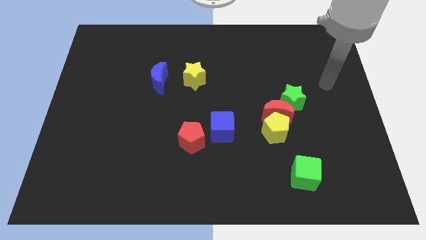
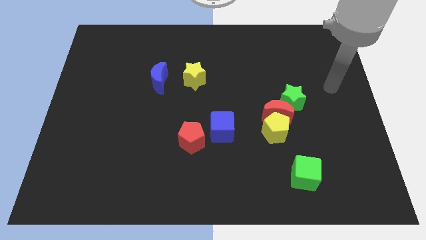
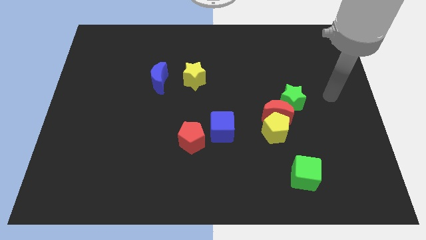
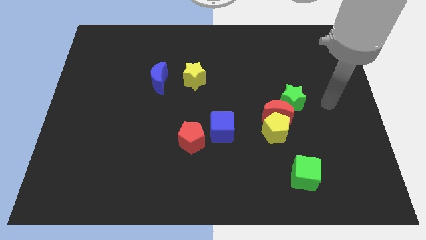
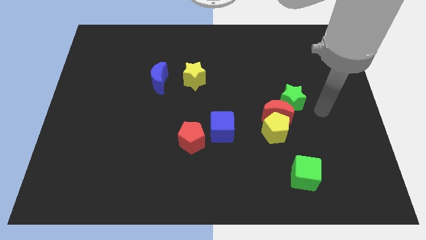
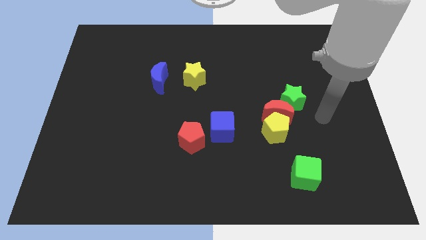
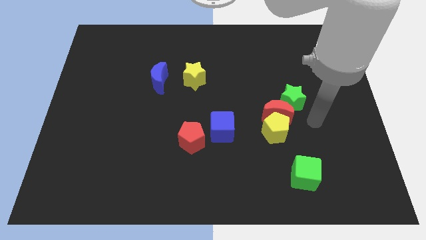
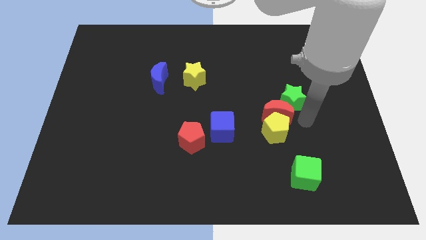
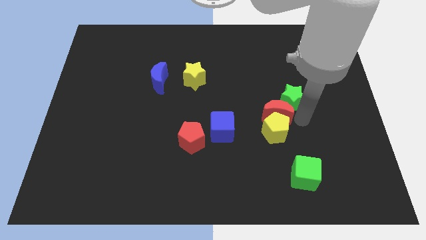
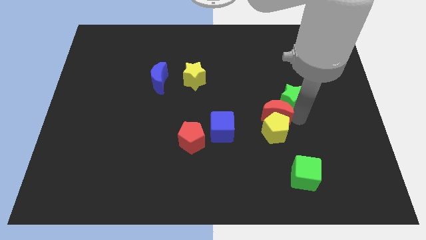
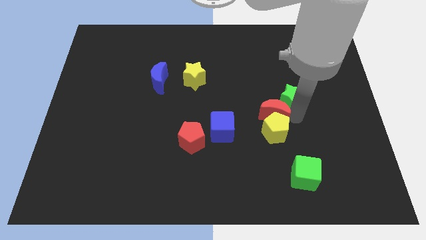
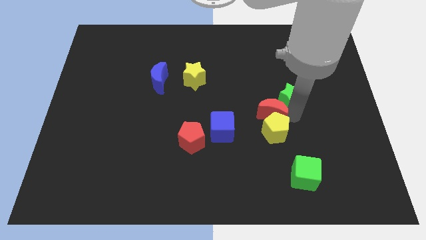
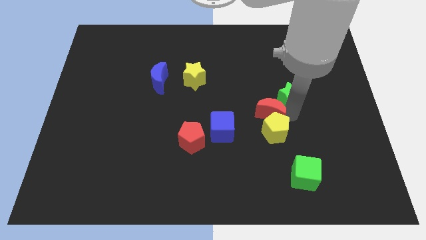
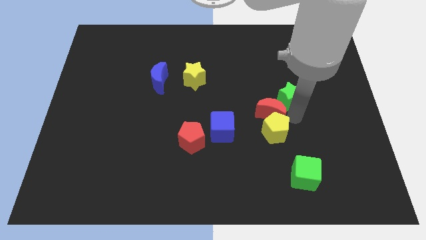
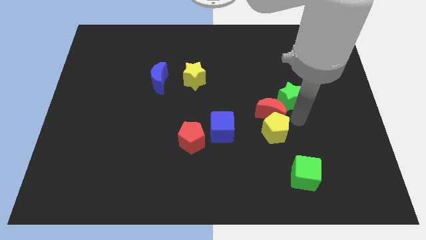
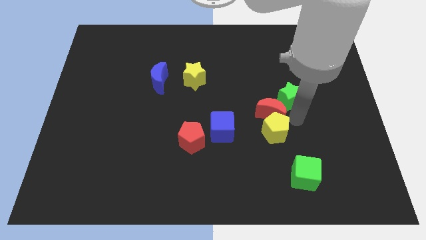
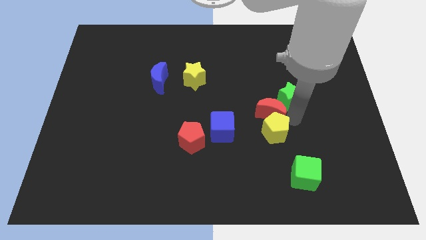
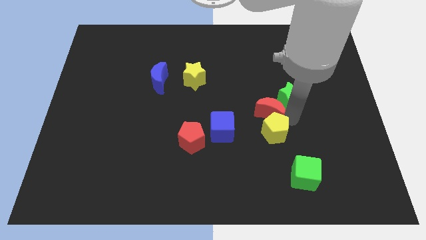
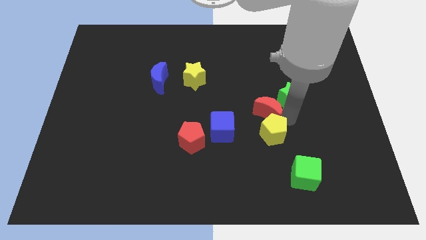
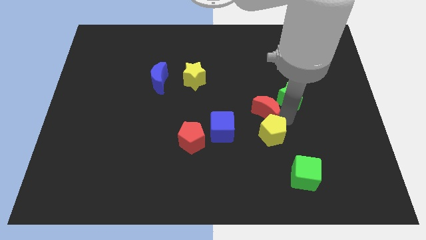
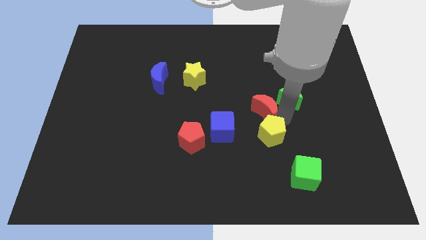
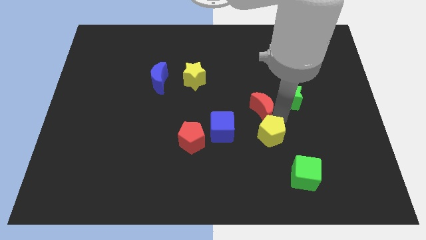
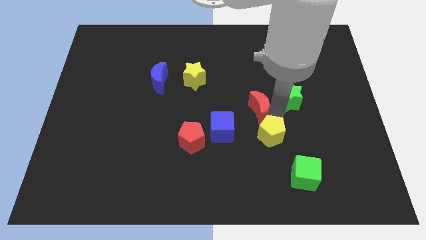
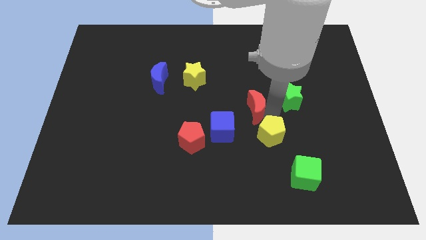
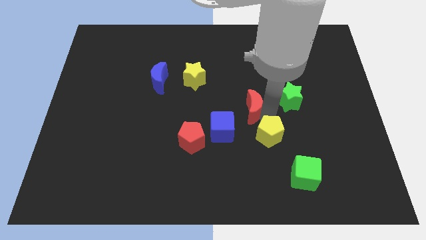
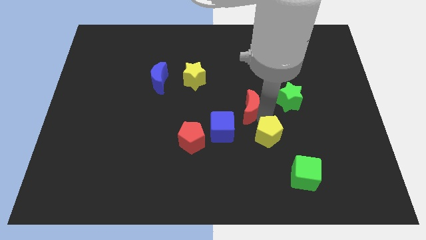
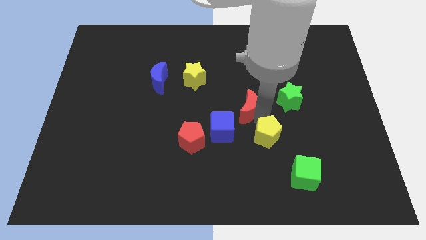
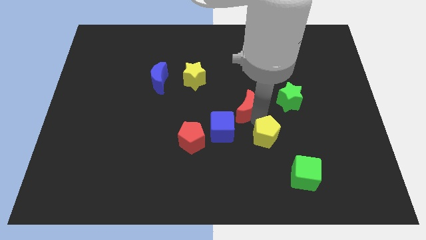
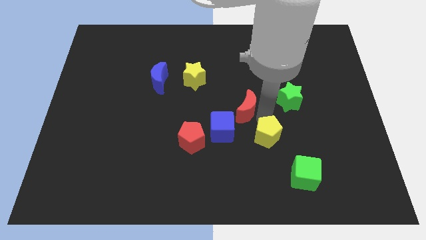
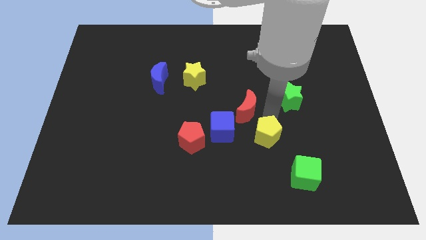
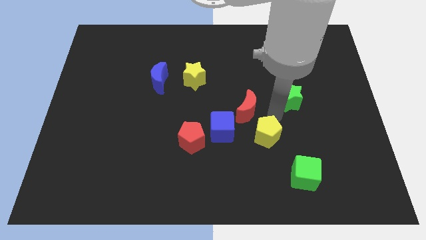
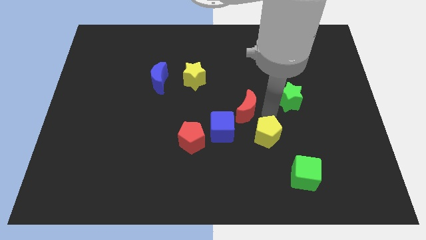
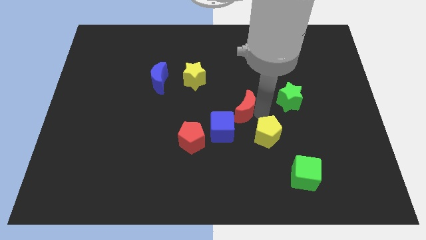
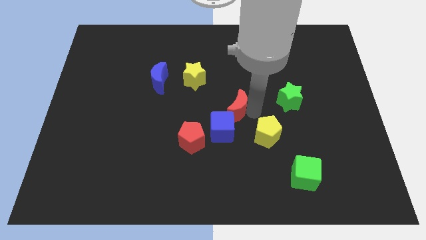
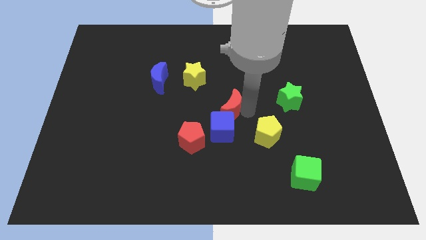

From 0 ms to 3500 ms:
pull the red moon apart from the yellow pentagon and green star

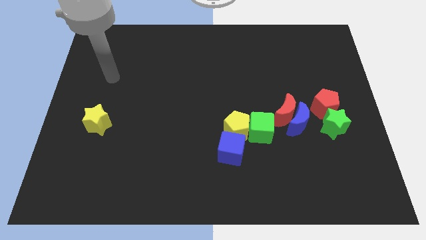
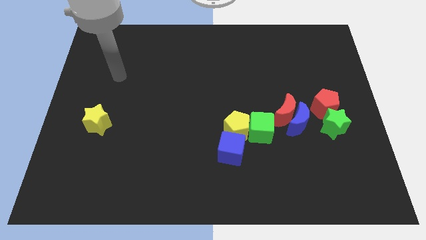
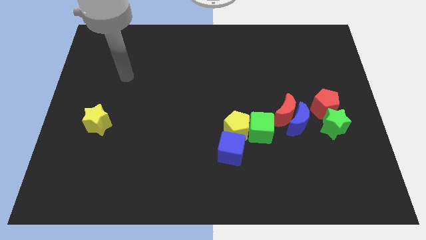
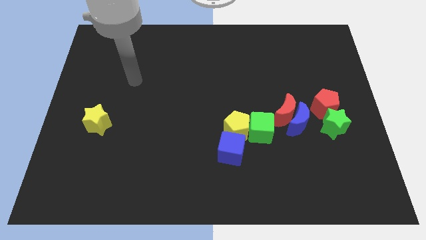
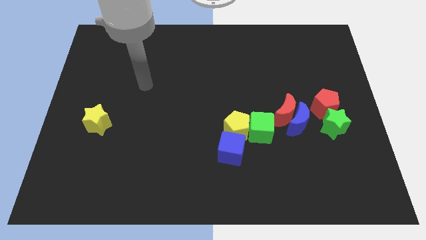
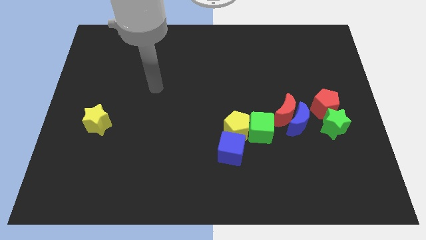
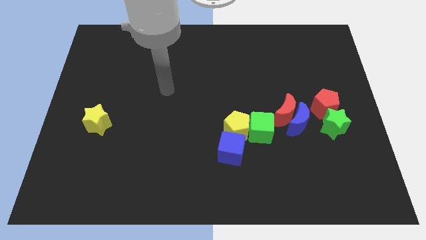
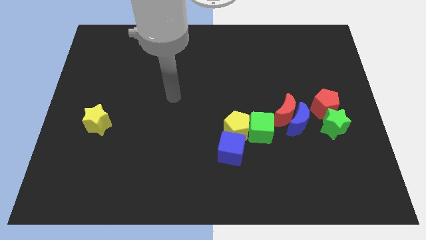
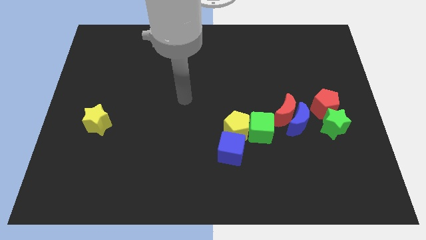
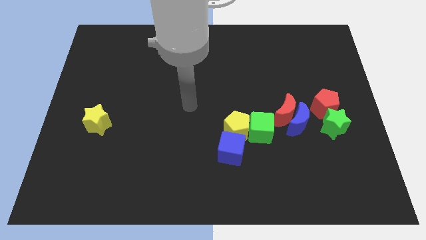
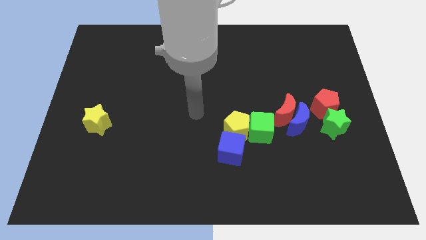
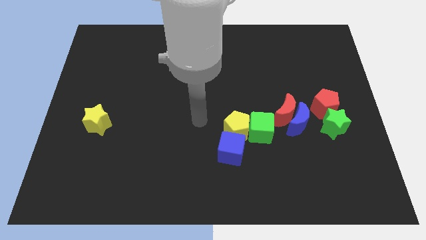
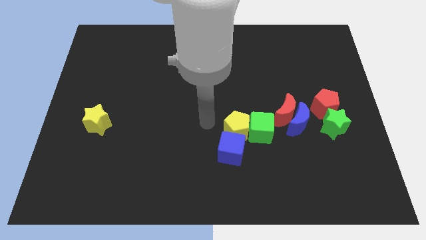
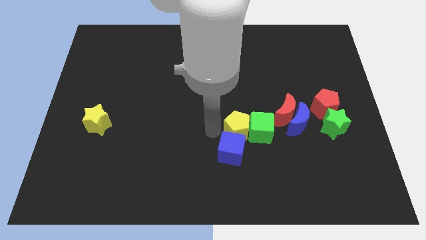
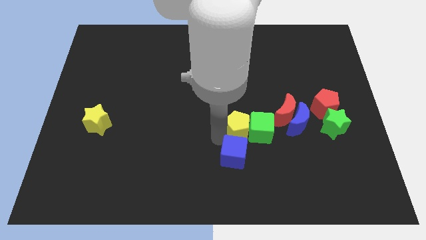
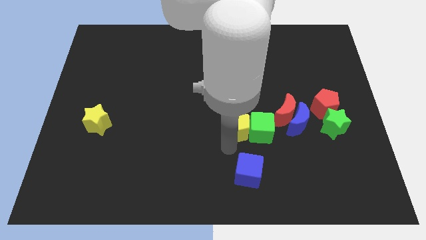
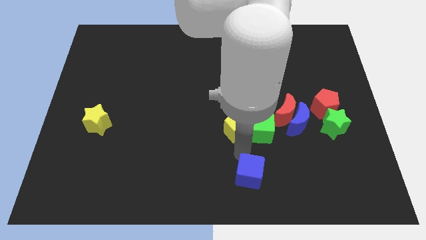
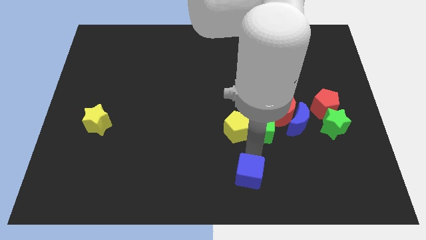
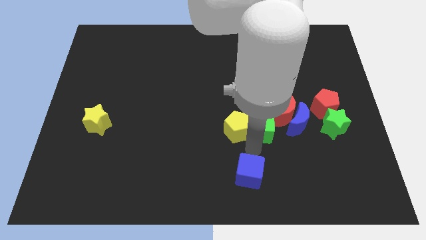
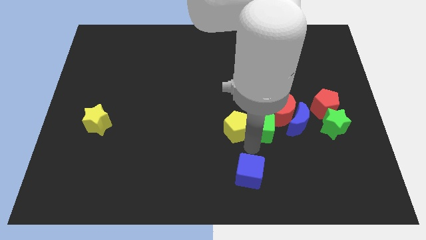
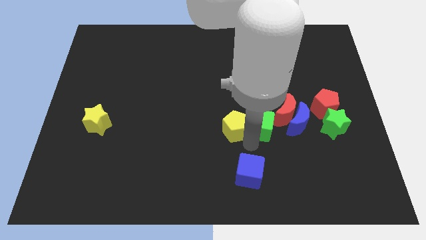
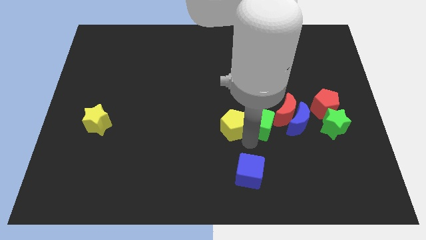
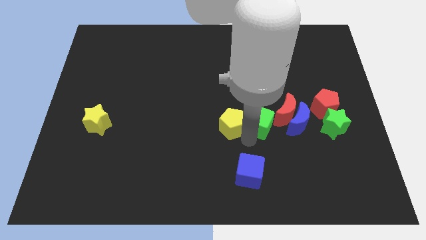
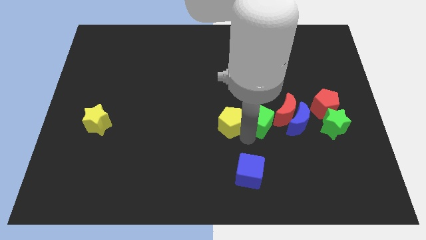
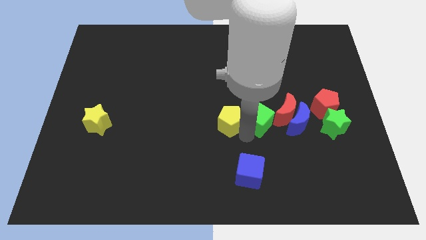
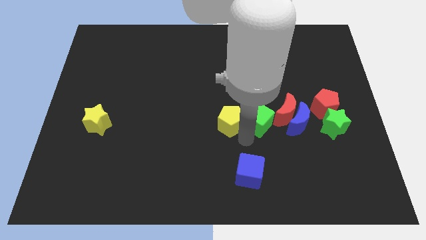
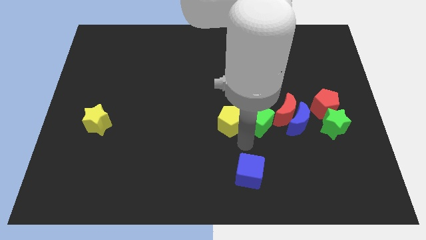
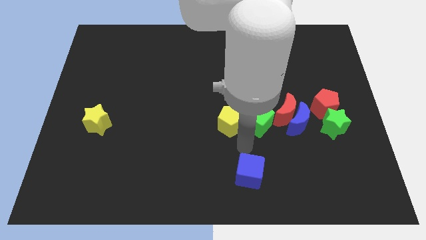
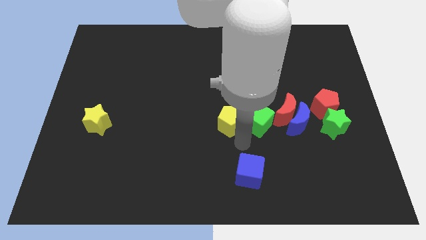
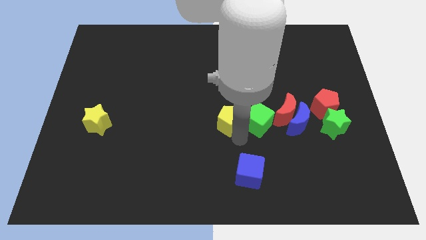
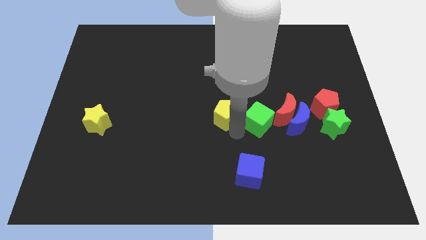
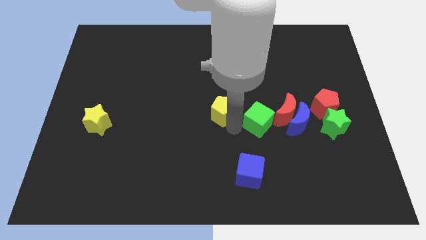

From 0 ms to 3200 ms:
separate the yellow pentagon from the green cube and blue cube

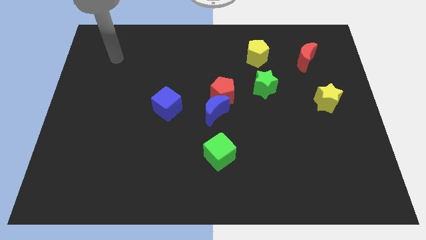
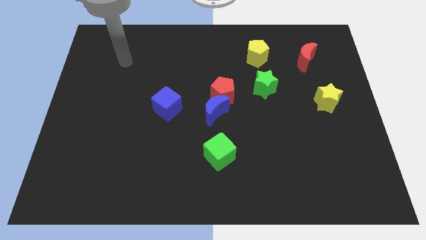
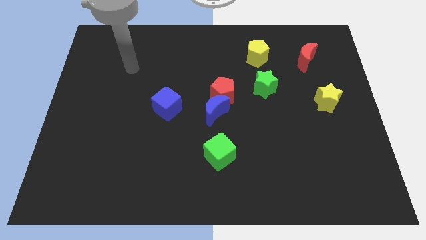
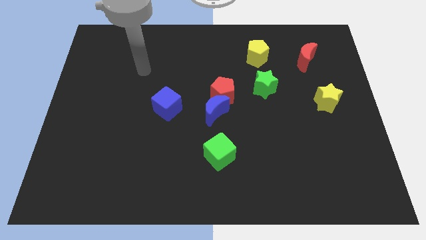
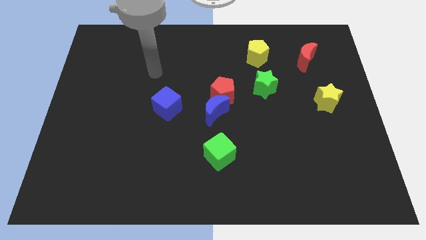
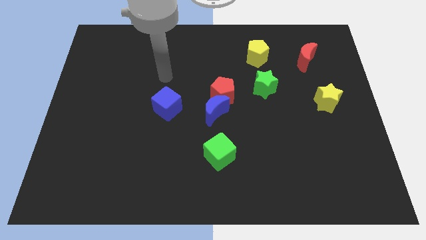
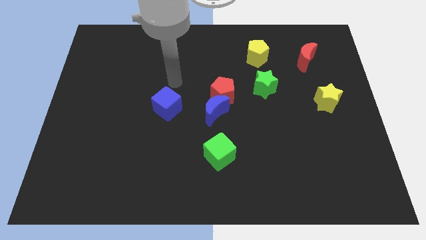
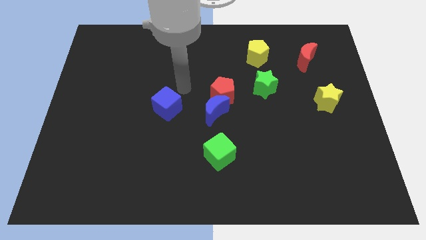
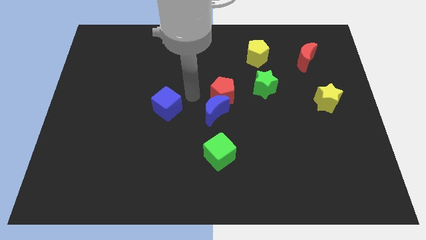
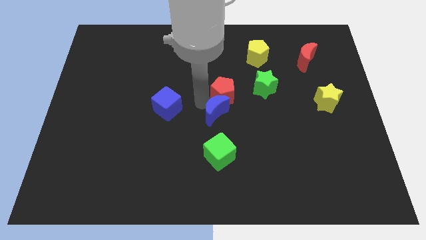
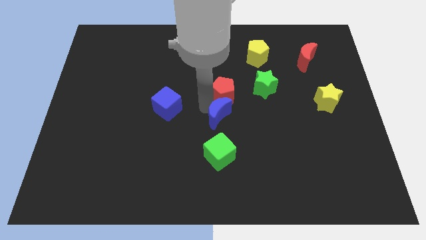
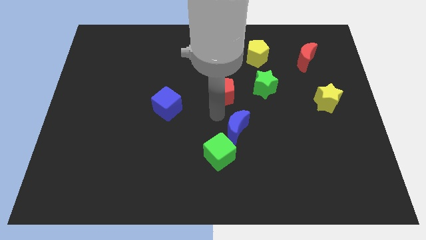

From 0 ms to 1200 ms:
separate the red pentagon from the blue moon

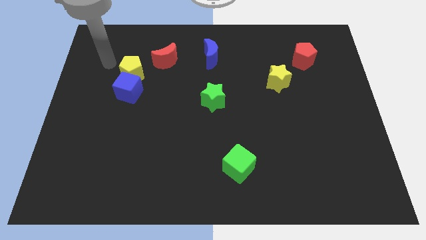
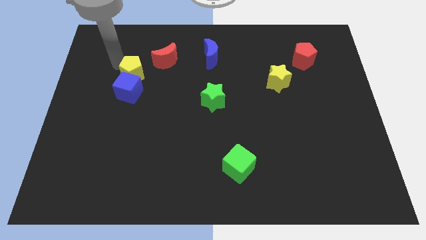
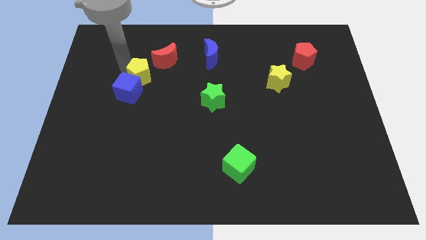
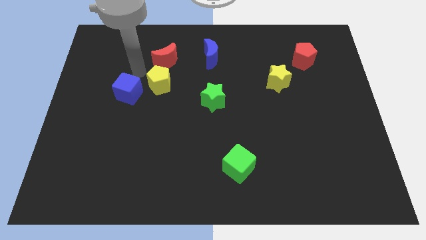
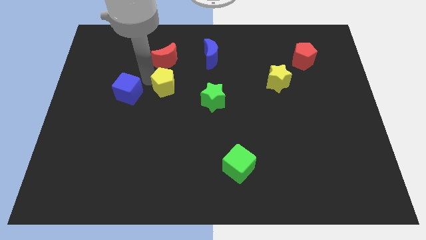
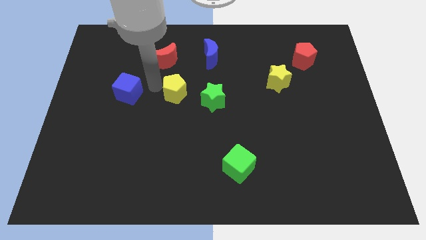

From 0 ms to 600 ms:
move the blue cube away from the yellow pentagon

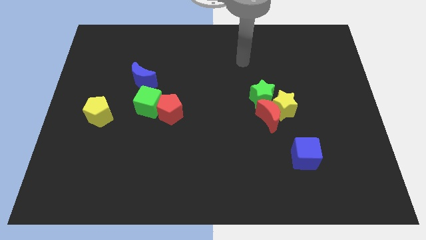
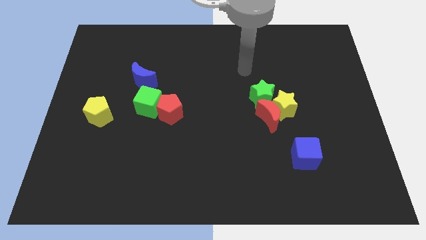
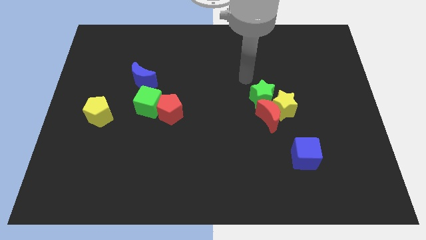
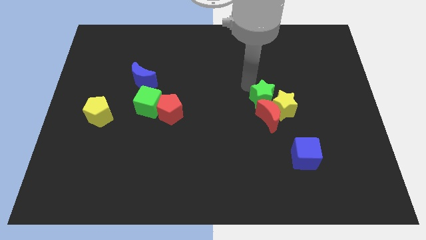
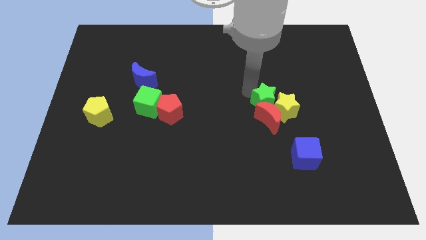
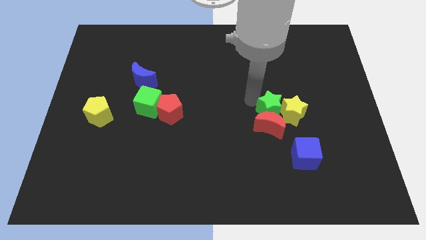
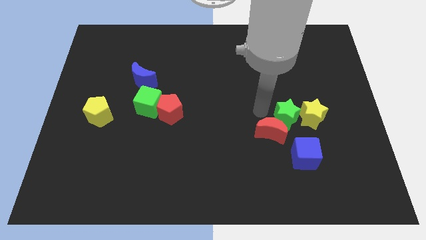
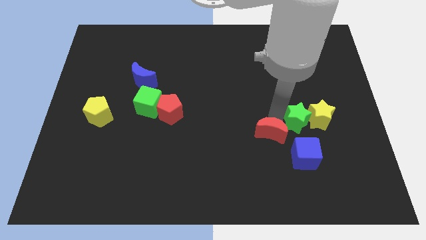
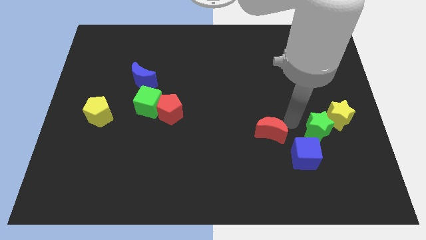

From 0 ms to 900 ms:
move the yellow star away from the red moon and green star
